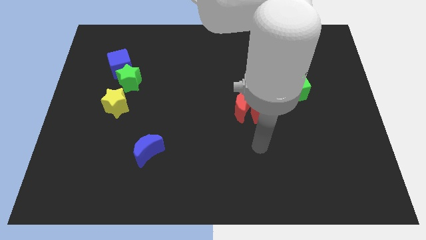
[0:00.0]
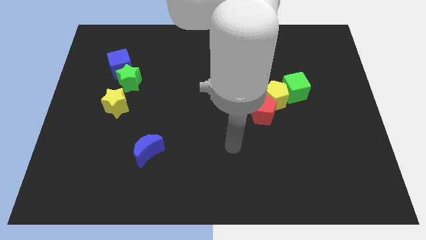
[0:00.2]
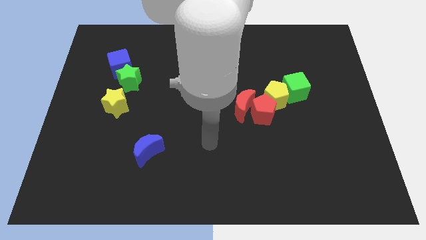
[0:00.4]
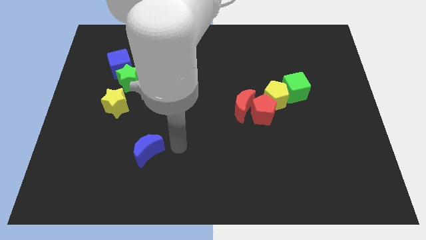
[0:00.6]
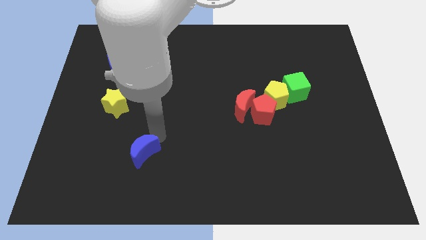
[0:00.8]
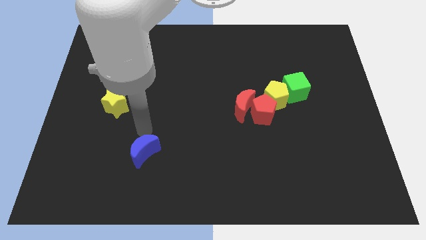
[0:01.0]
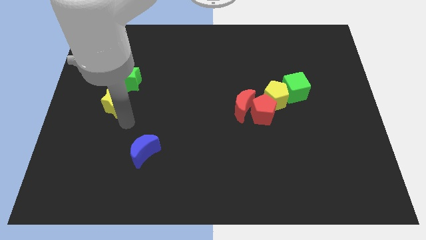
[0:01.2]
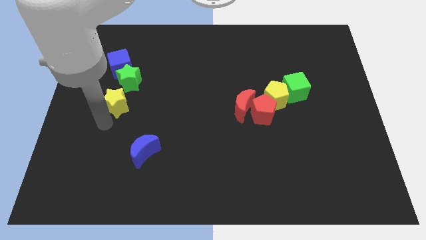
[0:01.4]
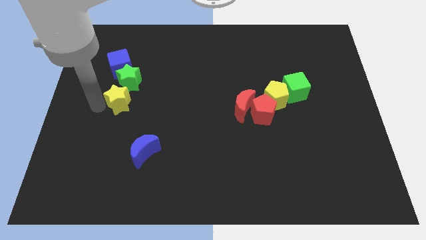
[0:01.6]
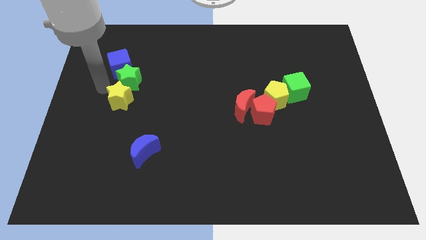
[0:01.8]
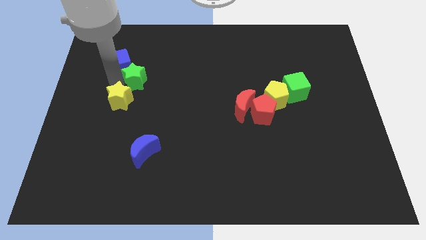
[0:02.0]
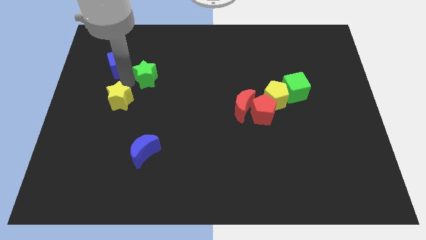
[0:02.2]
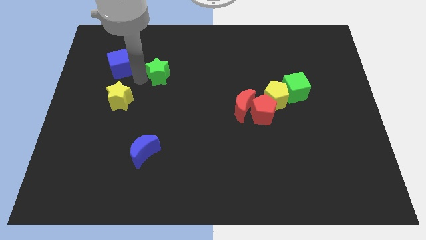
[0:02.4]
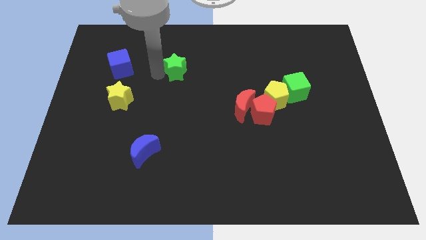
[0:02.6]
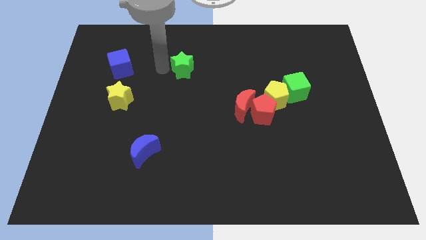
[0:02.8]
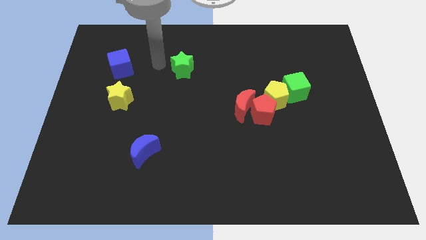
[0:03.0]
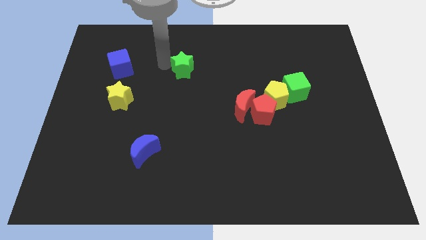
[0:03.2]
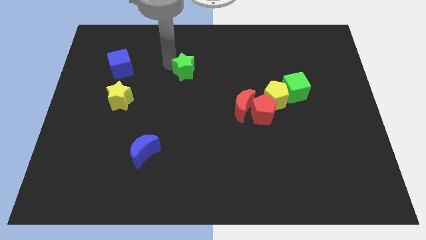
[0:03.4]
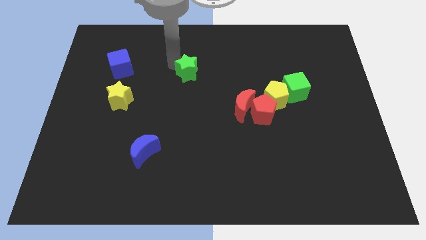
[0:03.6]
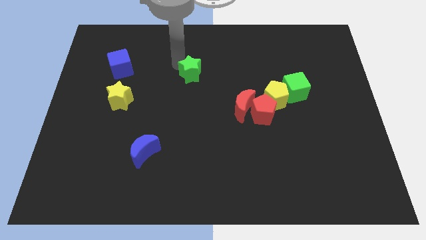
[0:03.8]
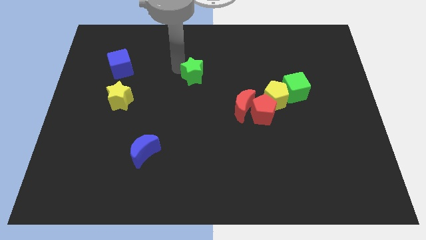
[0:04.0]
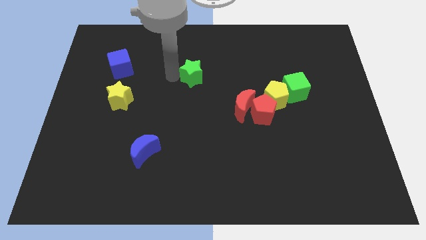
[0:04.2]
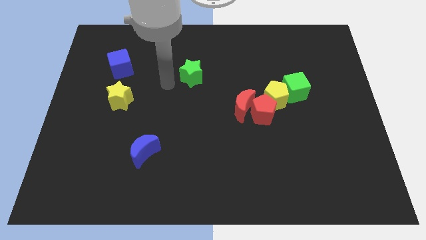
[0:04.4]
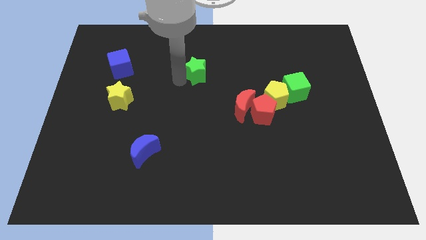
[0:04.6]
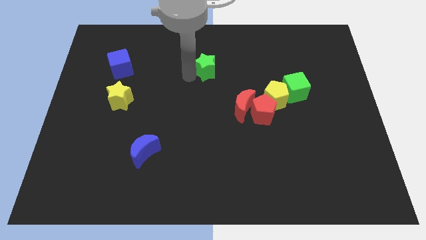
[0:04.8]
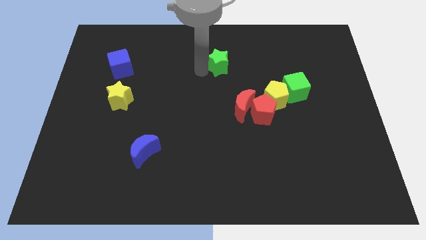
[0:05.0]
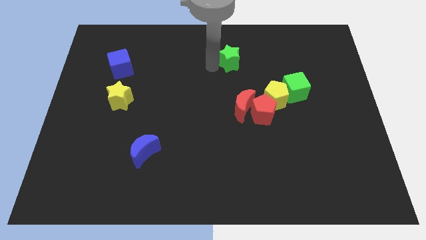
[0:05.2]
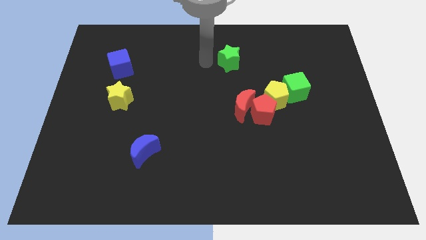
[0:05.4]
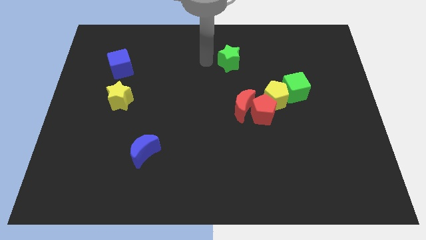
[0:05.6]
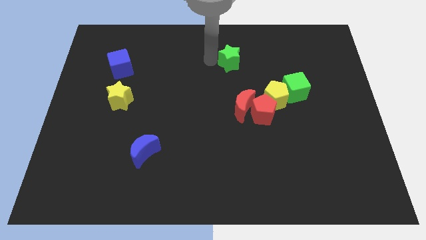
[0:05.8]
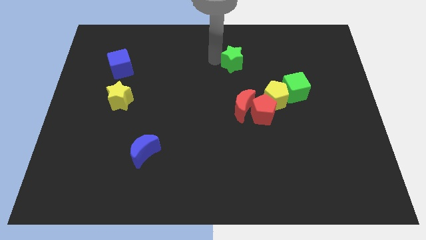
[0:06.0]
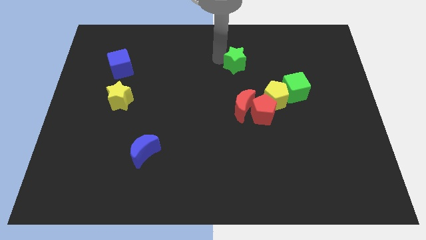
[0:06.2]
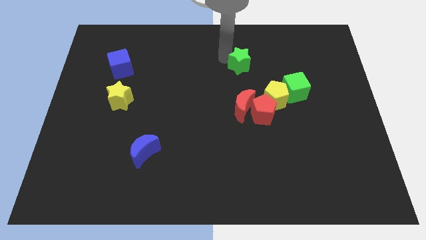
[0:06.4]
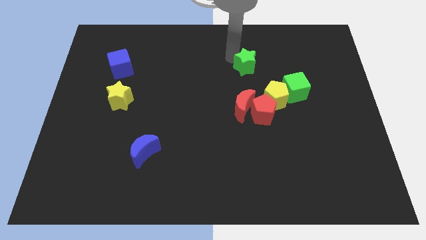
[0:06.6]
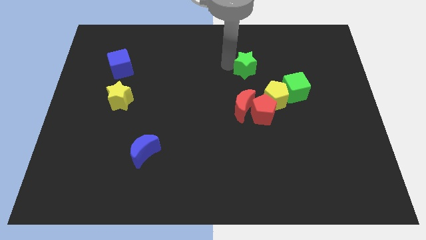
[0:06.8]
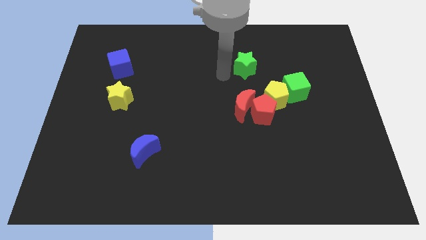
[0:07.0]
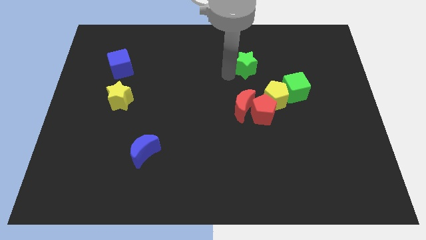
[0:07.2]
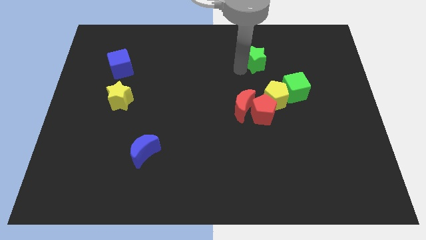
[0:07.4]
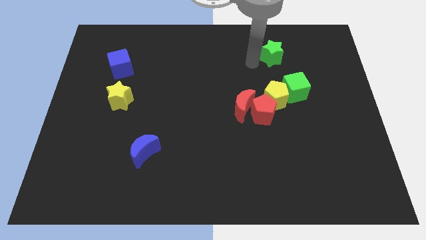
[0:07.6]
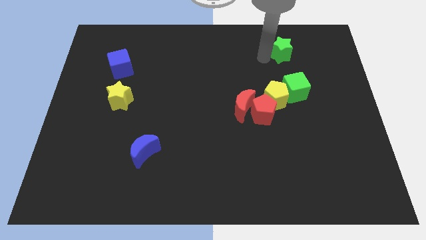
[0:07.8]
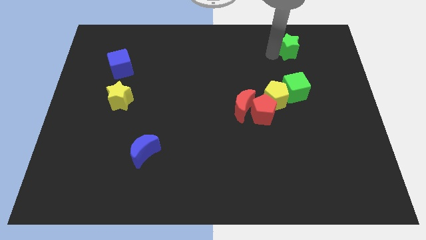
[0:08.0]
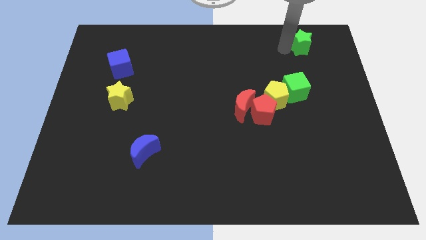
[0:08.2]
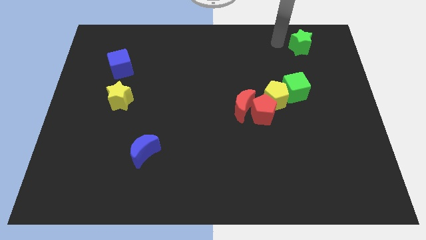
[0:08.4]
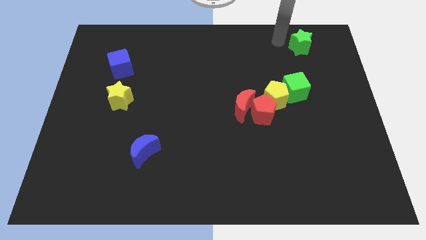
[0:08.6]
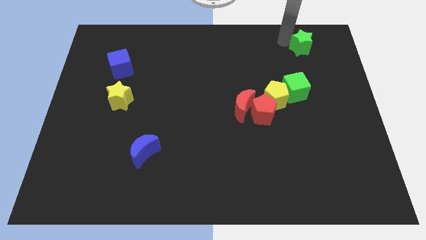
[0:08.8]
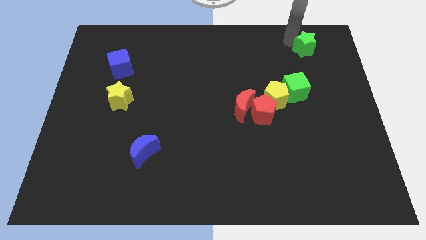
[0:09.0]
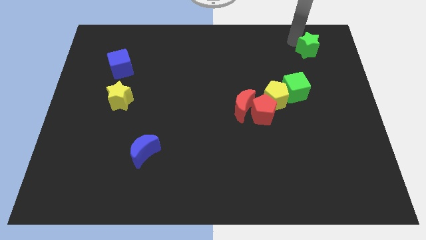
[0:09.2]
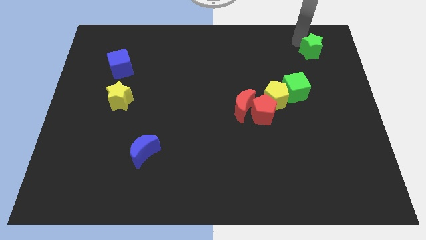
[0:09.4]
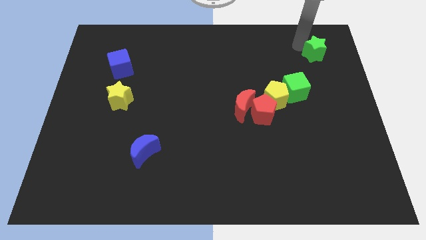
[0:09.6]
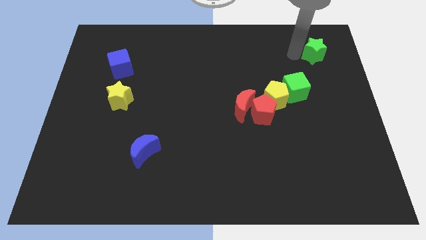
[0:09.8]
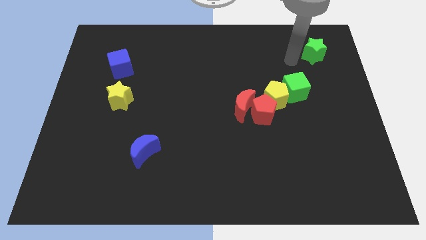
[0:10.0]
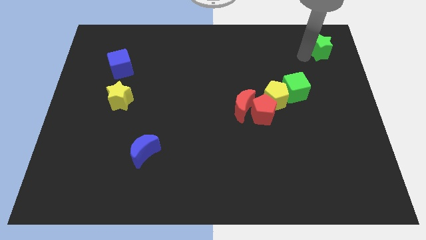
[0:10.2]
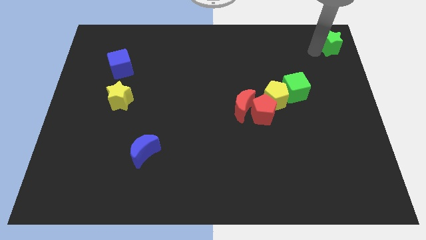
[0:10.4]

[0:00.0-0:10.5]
slide the green star to the top right of the board
